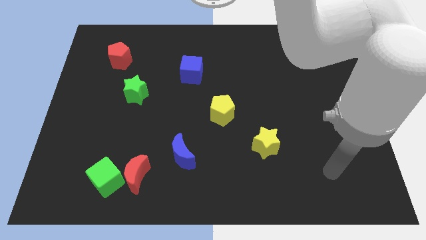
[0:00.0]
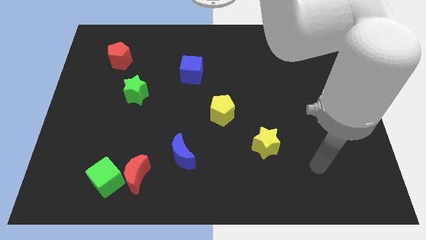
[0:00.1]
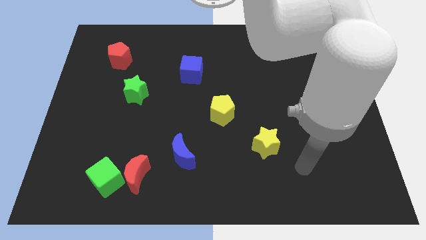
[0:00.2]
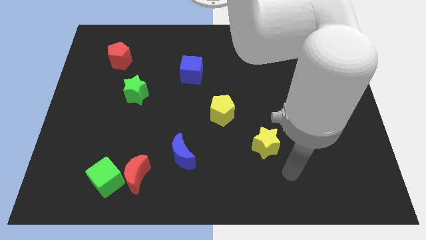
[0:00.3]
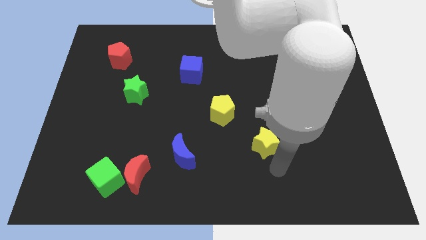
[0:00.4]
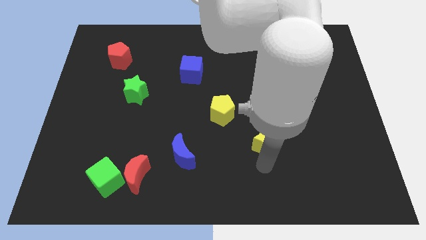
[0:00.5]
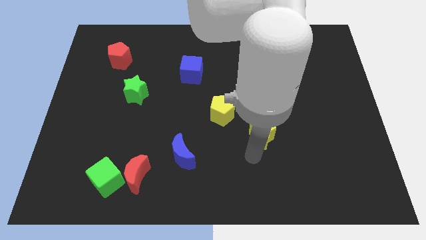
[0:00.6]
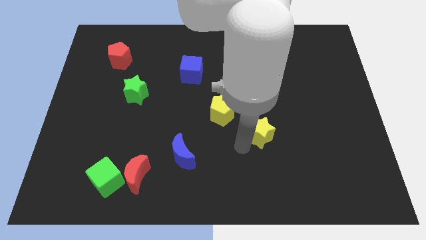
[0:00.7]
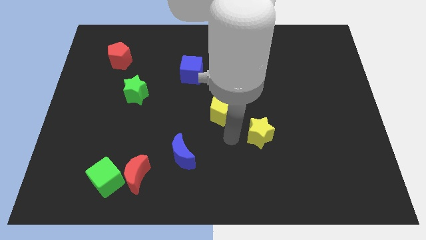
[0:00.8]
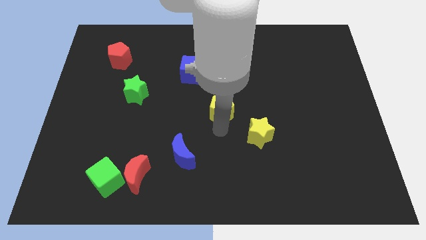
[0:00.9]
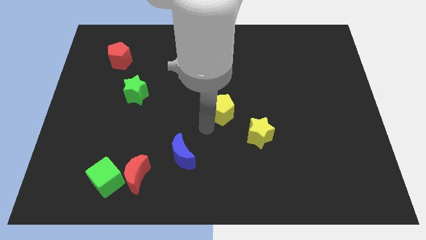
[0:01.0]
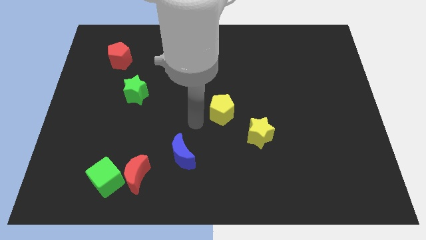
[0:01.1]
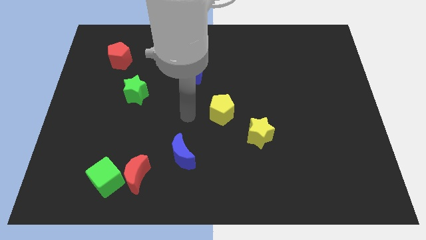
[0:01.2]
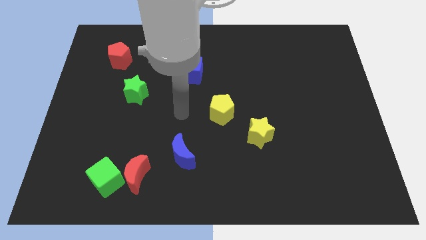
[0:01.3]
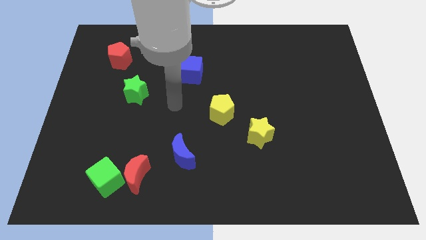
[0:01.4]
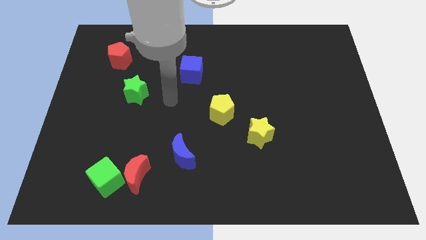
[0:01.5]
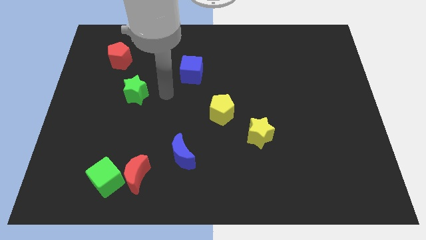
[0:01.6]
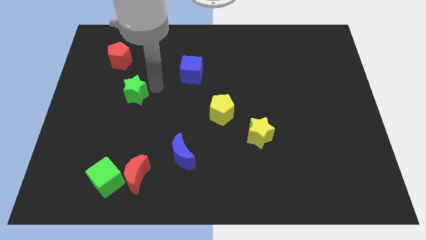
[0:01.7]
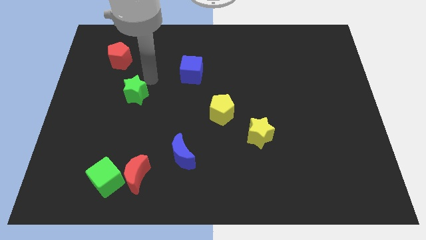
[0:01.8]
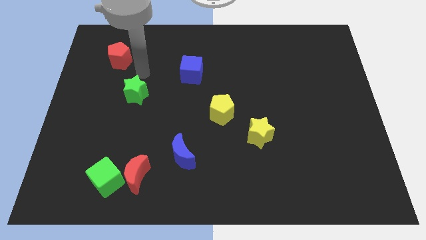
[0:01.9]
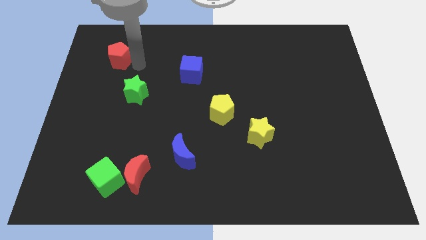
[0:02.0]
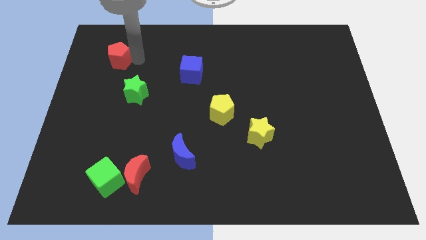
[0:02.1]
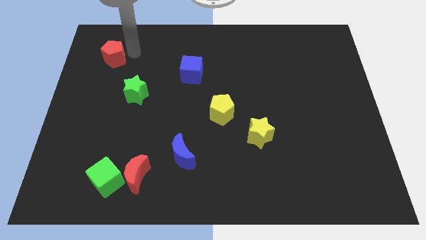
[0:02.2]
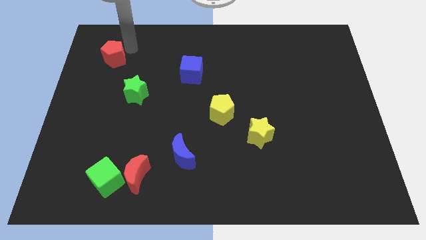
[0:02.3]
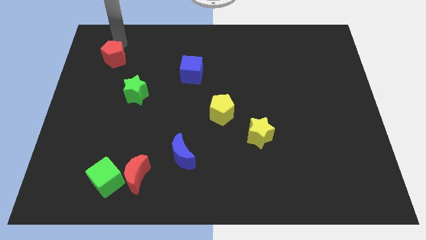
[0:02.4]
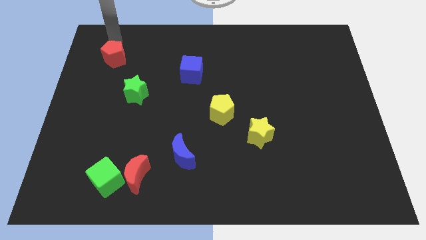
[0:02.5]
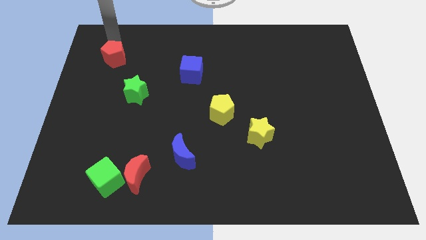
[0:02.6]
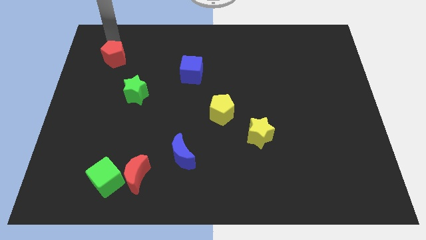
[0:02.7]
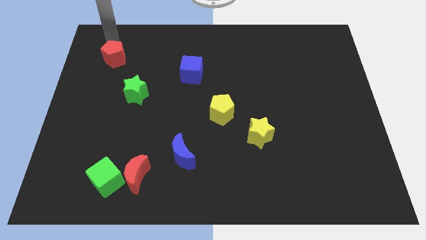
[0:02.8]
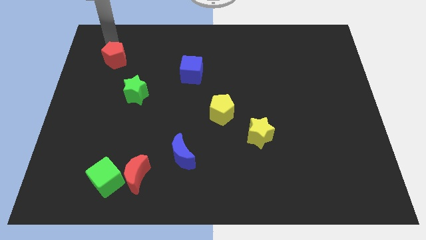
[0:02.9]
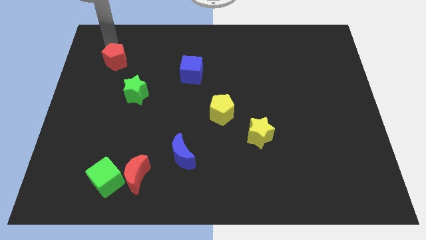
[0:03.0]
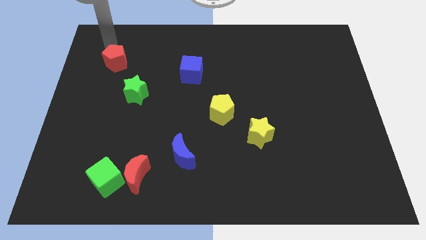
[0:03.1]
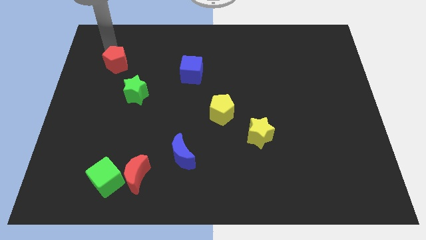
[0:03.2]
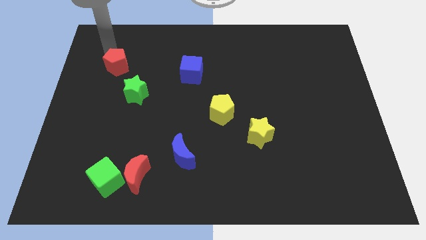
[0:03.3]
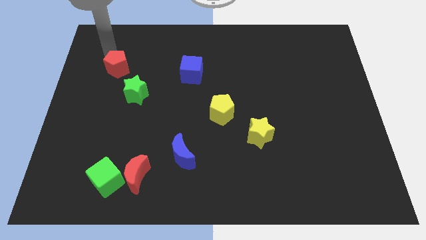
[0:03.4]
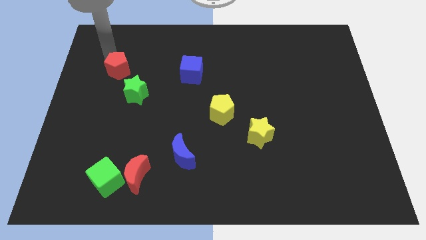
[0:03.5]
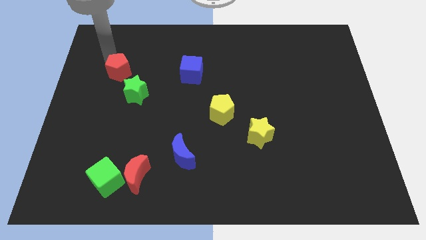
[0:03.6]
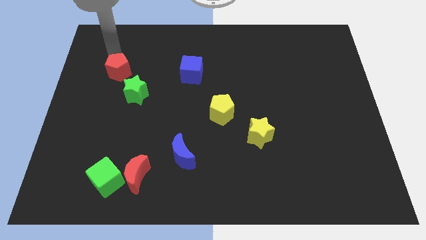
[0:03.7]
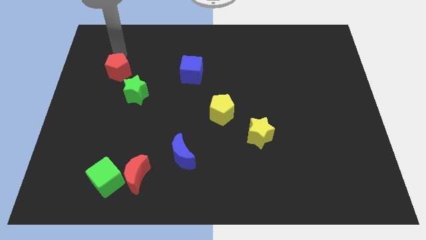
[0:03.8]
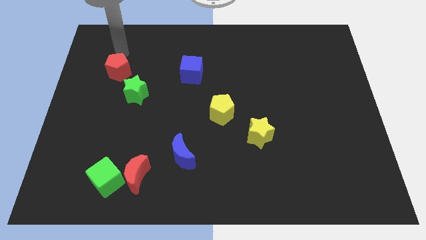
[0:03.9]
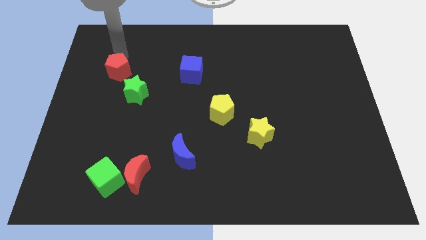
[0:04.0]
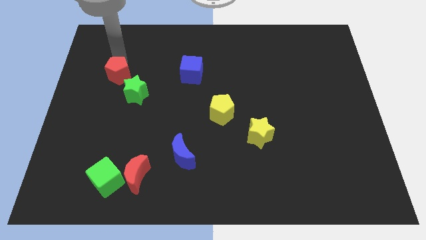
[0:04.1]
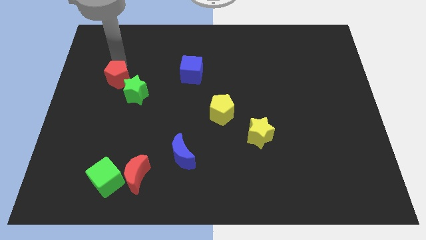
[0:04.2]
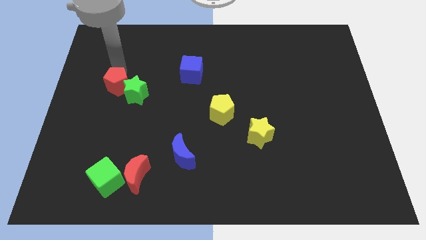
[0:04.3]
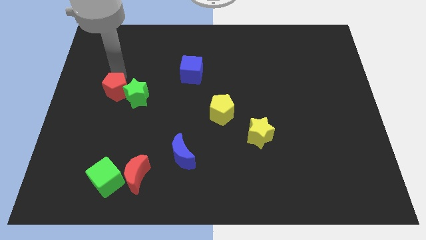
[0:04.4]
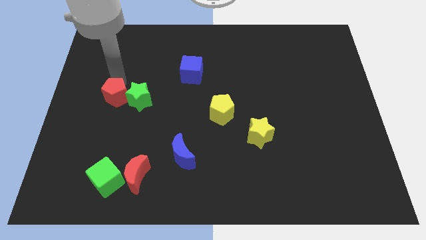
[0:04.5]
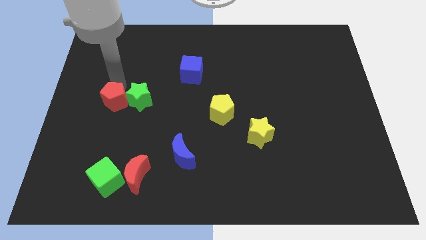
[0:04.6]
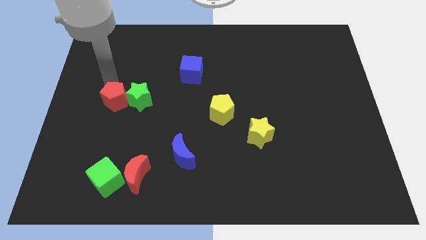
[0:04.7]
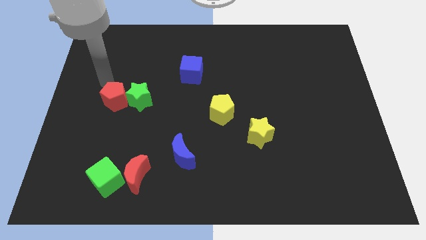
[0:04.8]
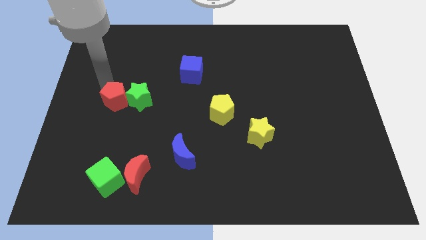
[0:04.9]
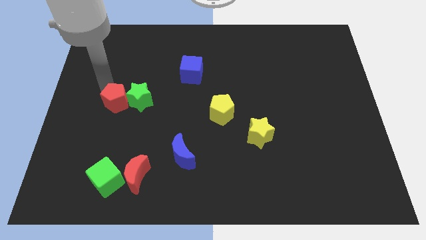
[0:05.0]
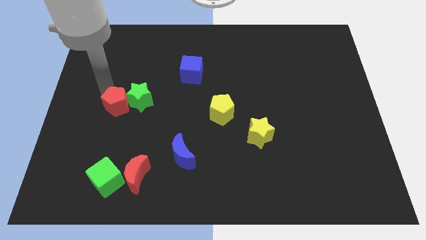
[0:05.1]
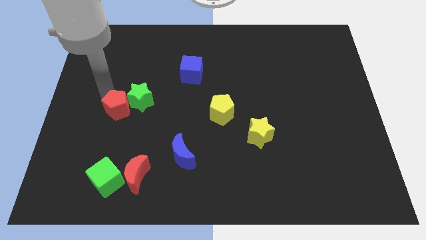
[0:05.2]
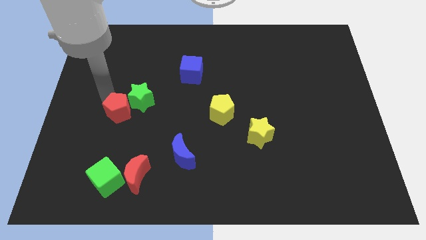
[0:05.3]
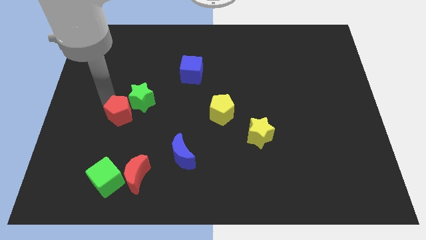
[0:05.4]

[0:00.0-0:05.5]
put the red pentagon to the bottom of the green star

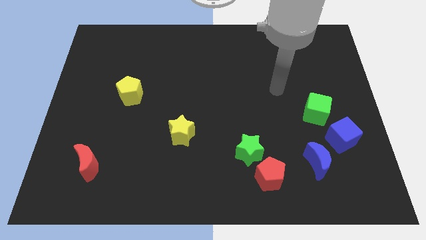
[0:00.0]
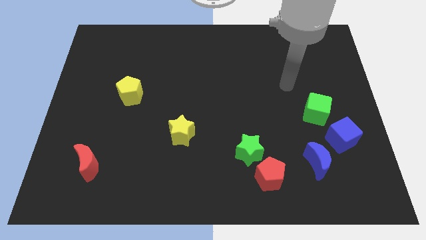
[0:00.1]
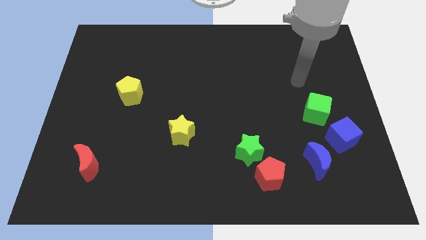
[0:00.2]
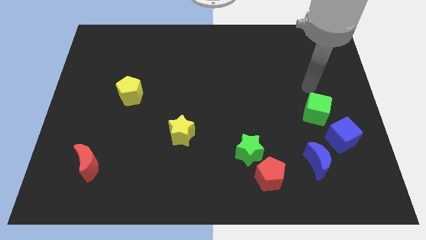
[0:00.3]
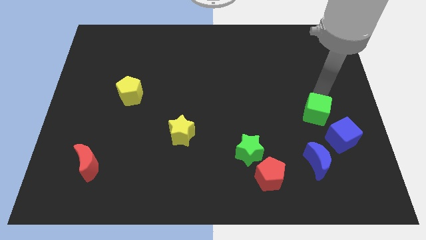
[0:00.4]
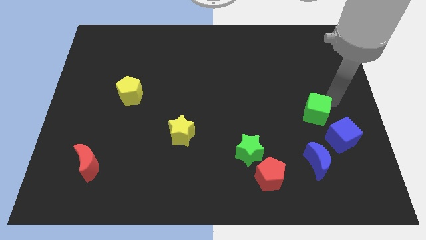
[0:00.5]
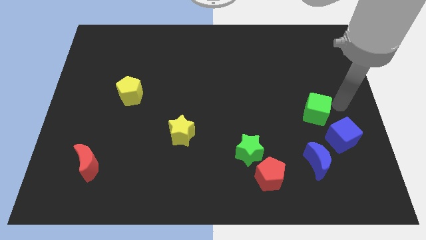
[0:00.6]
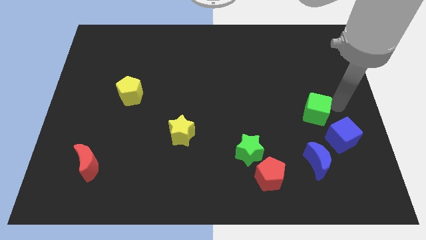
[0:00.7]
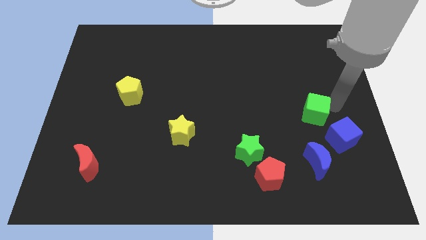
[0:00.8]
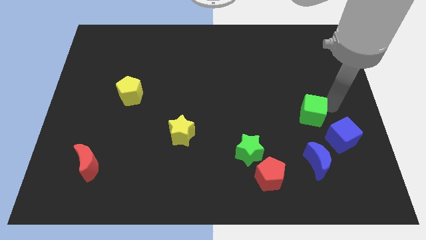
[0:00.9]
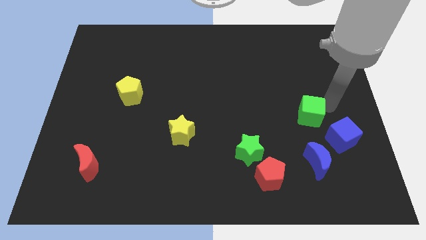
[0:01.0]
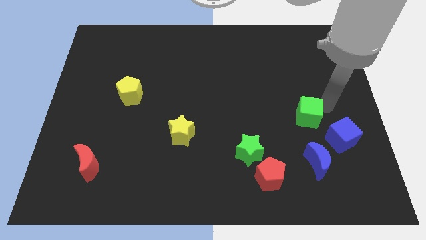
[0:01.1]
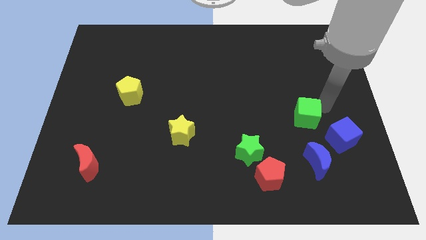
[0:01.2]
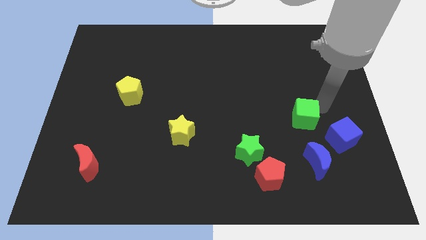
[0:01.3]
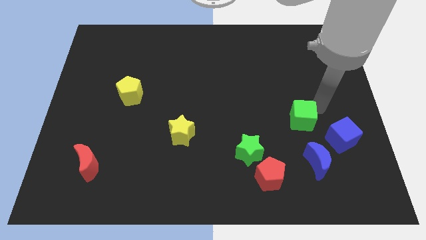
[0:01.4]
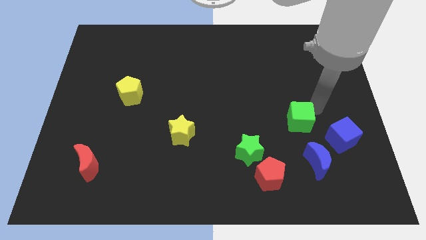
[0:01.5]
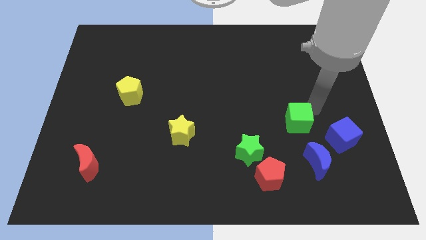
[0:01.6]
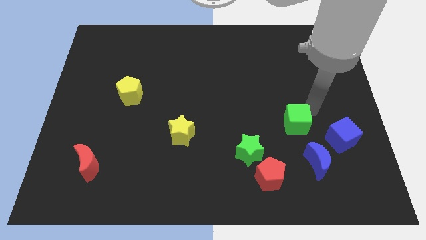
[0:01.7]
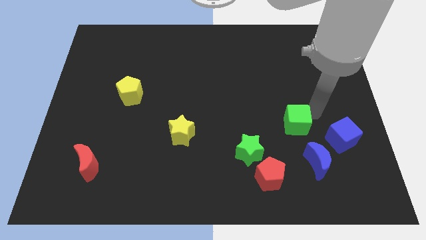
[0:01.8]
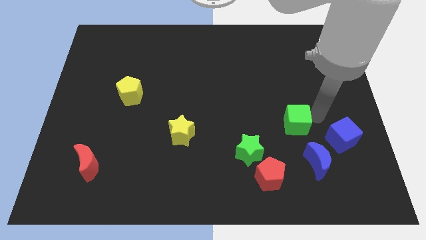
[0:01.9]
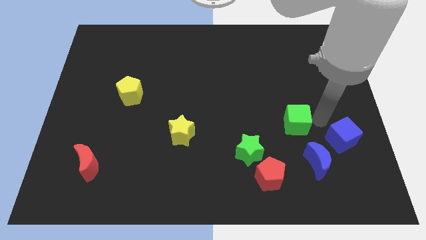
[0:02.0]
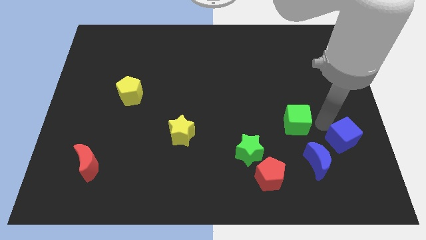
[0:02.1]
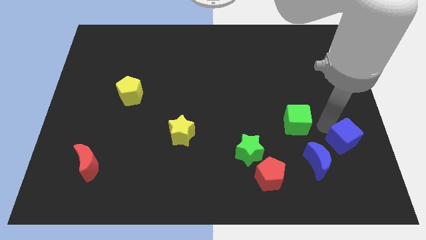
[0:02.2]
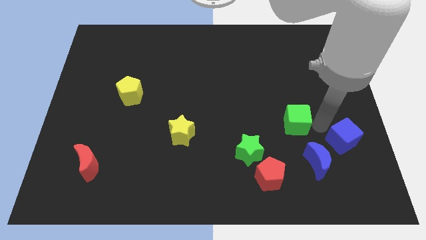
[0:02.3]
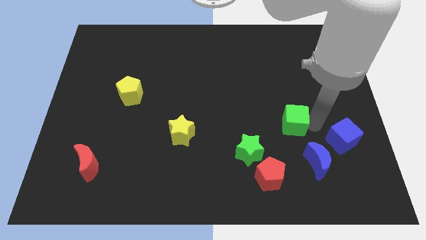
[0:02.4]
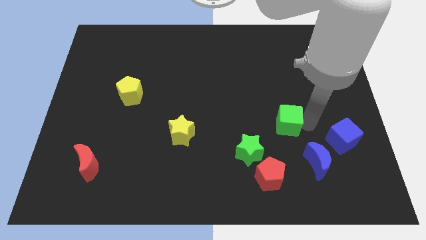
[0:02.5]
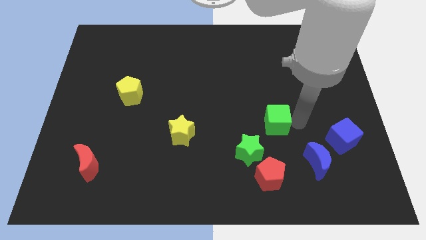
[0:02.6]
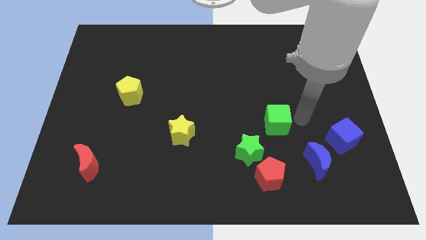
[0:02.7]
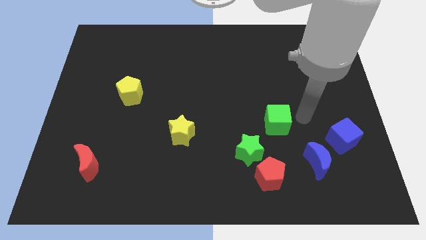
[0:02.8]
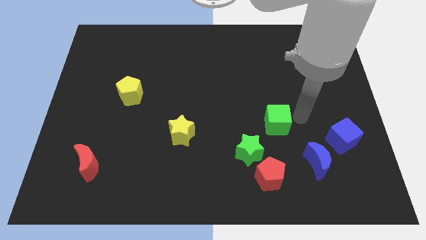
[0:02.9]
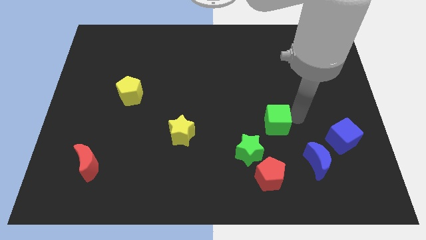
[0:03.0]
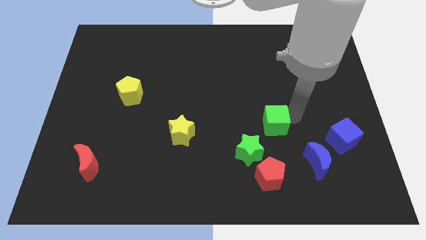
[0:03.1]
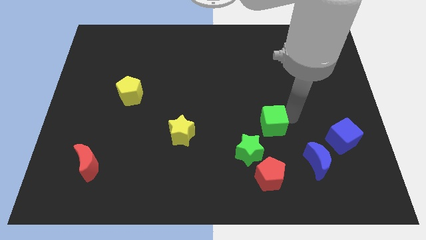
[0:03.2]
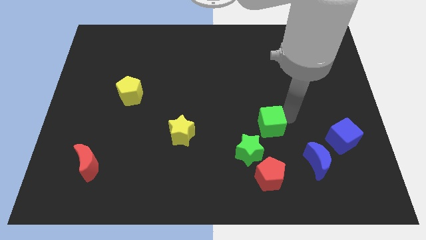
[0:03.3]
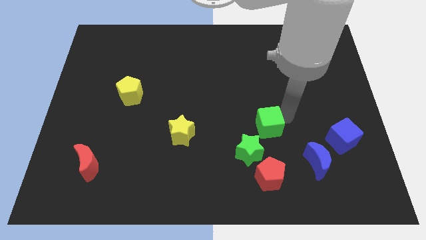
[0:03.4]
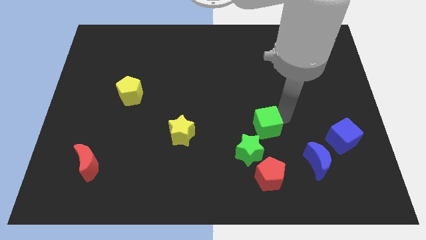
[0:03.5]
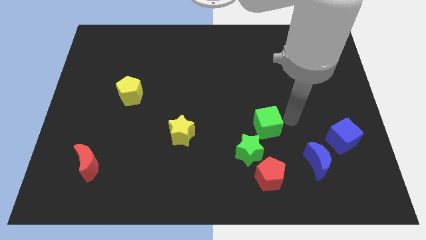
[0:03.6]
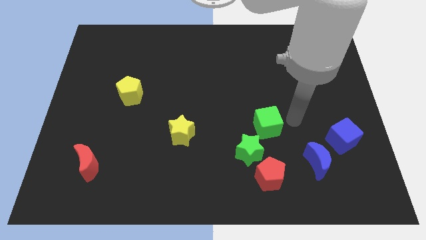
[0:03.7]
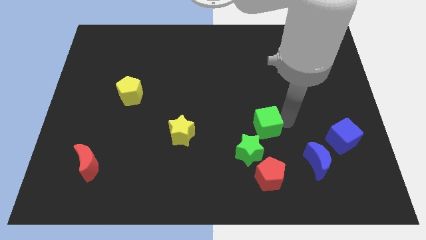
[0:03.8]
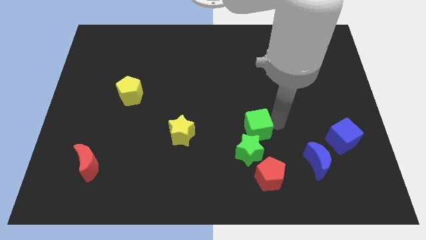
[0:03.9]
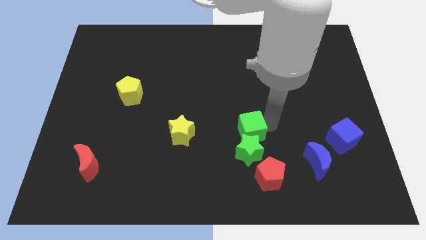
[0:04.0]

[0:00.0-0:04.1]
put the green cube to the top left side of the green star
